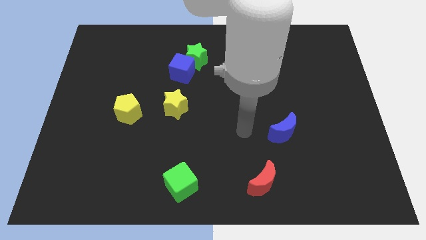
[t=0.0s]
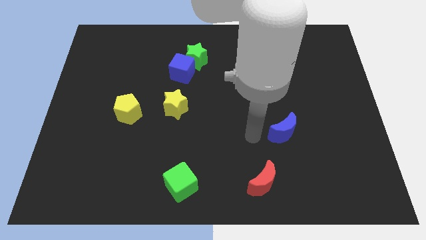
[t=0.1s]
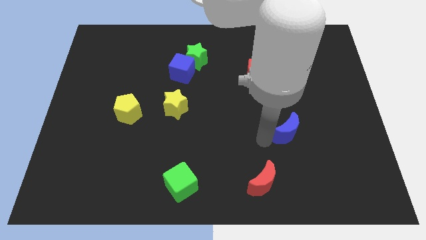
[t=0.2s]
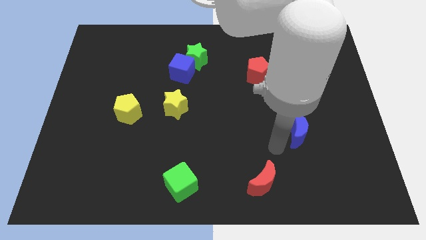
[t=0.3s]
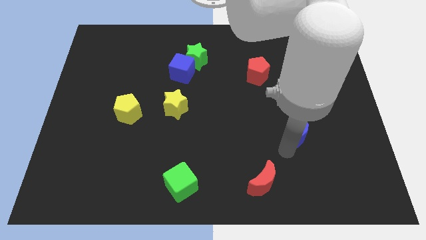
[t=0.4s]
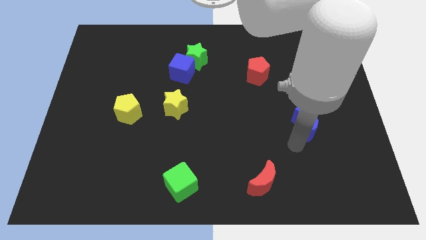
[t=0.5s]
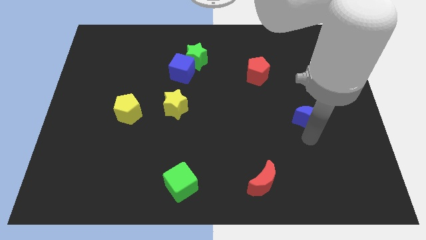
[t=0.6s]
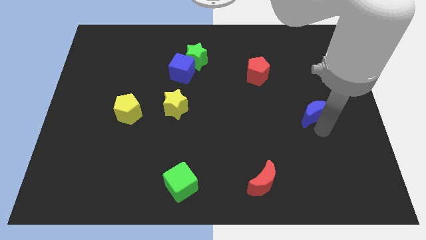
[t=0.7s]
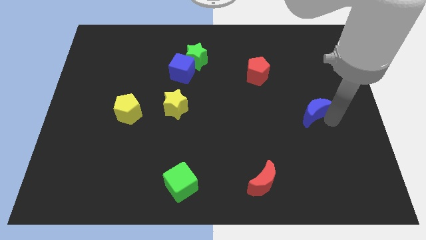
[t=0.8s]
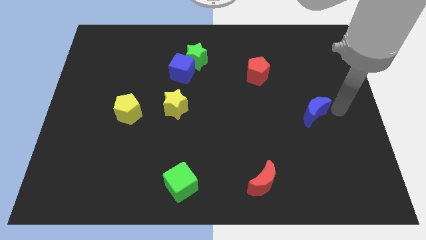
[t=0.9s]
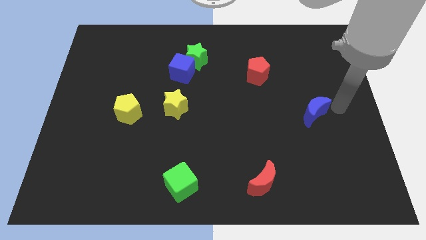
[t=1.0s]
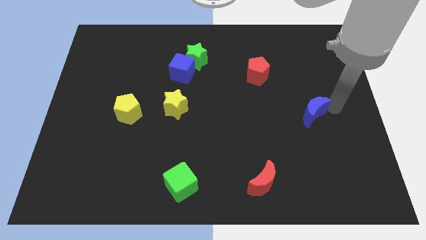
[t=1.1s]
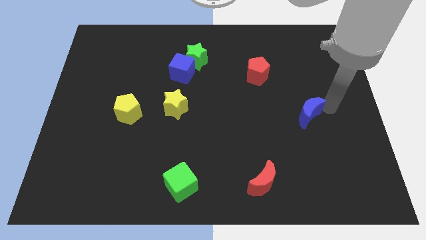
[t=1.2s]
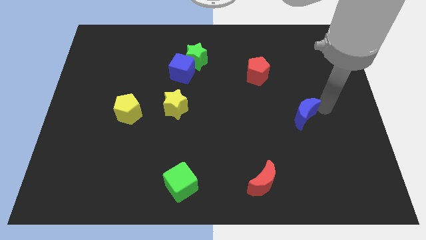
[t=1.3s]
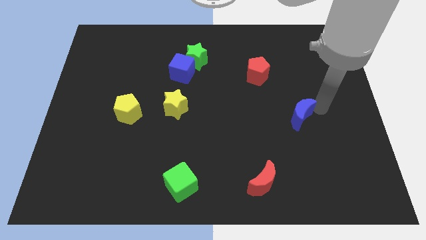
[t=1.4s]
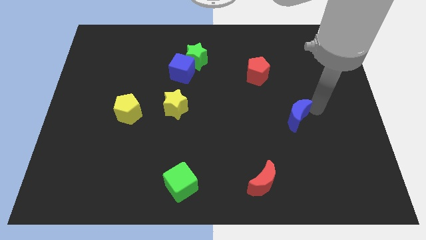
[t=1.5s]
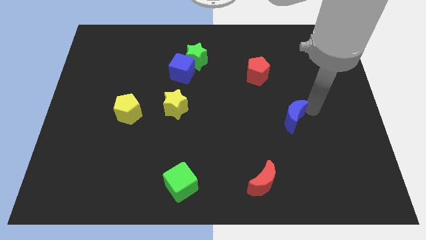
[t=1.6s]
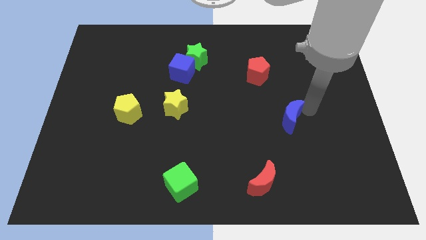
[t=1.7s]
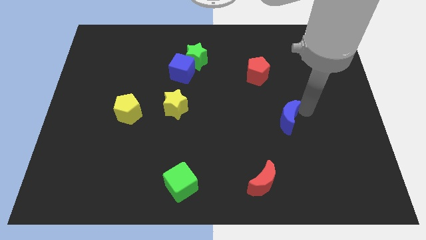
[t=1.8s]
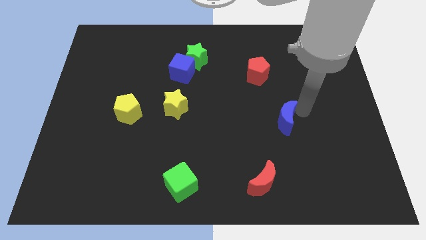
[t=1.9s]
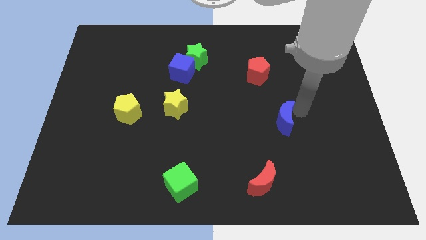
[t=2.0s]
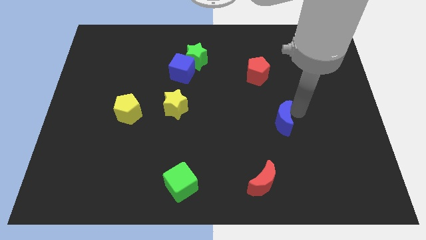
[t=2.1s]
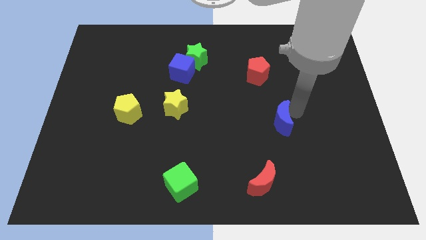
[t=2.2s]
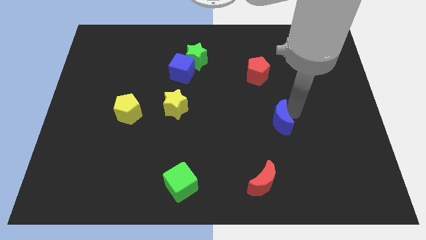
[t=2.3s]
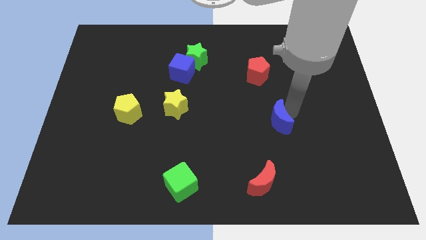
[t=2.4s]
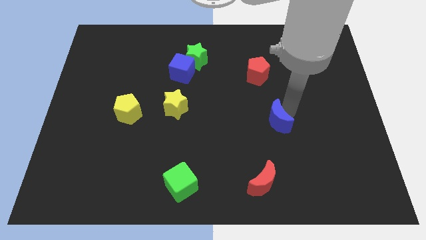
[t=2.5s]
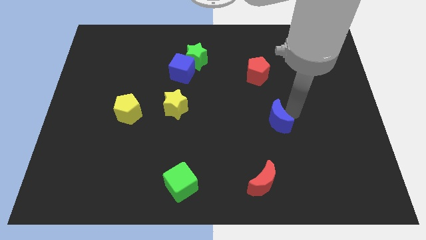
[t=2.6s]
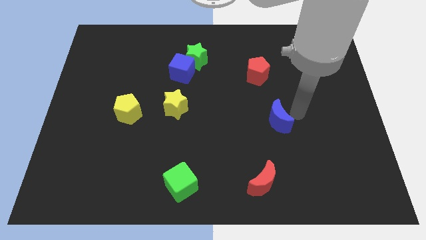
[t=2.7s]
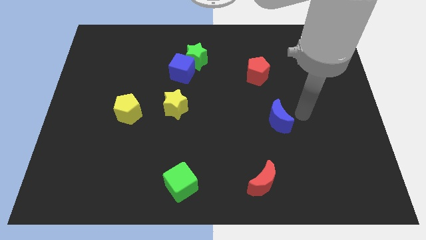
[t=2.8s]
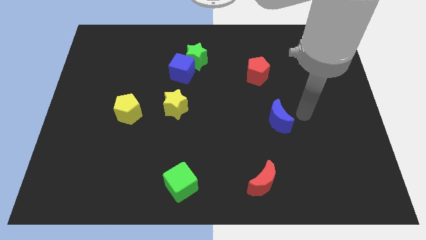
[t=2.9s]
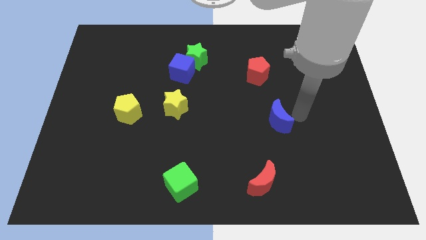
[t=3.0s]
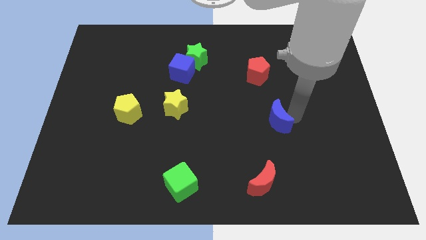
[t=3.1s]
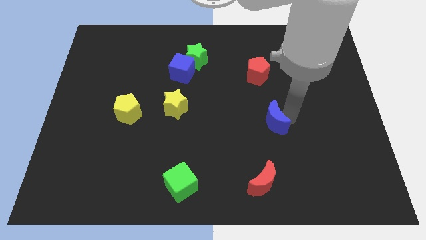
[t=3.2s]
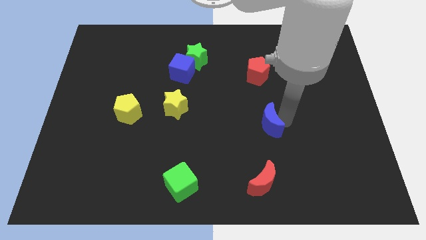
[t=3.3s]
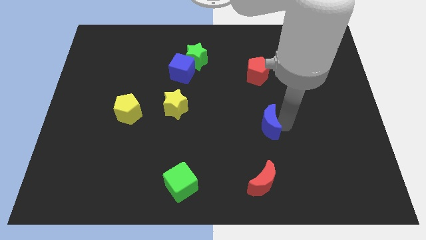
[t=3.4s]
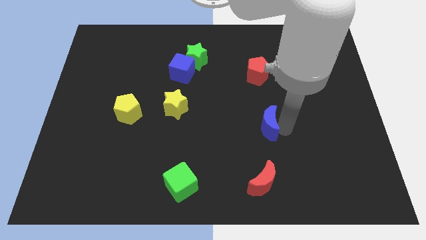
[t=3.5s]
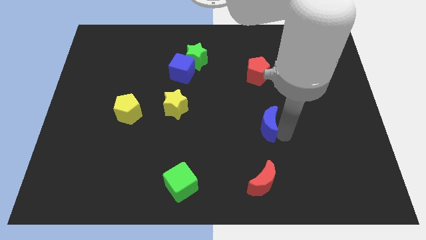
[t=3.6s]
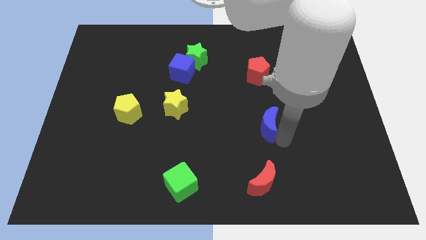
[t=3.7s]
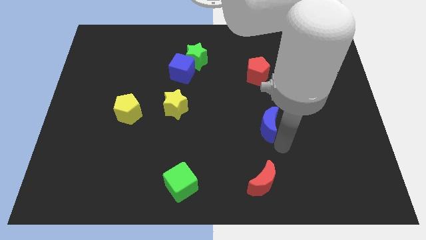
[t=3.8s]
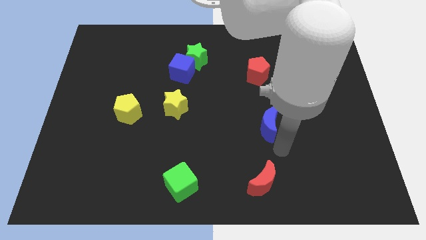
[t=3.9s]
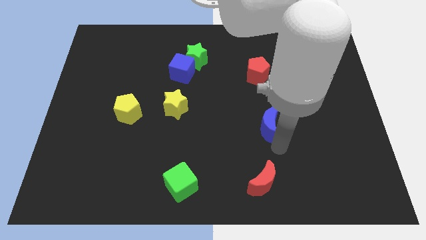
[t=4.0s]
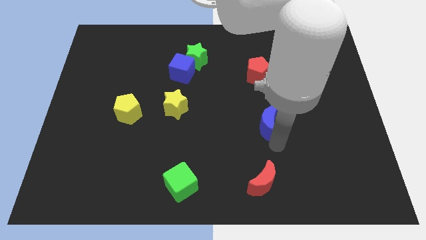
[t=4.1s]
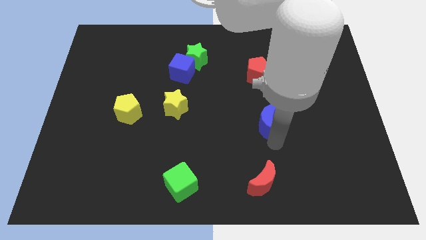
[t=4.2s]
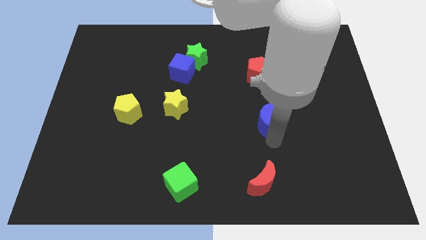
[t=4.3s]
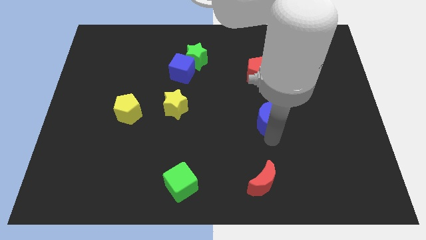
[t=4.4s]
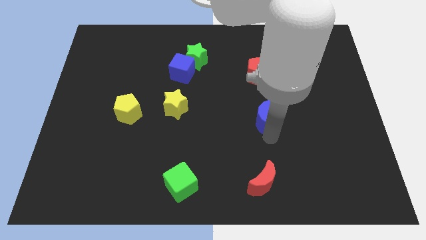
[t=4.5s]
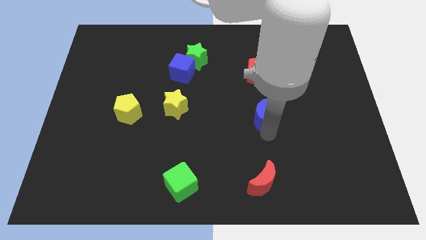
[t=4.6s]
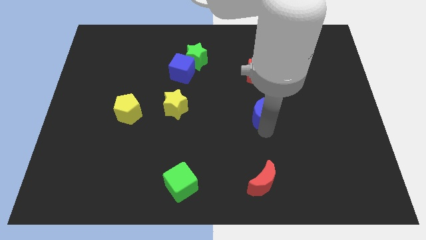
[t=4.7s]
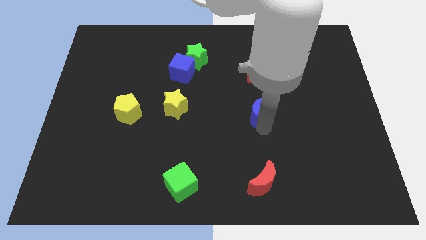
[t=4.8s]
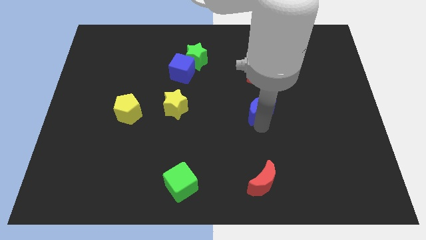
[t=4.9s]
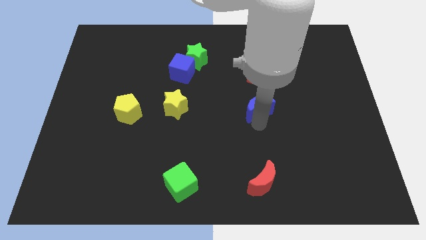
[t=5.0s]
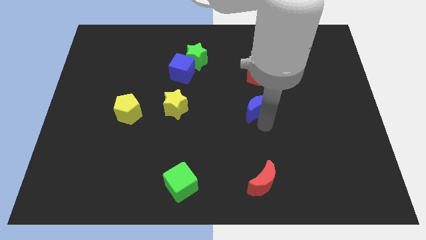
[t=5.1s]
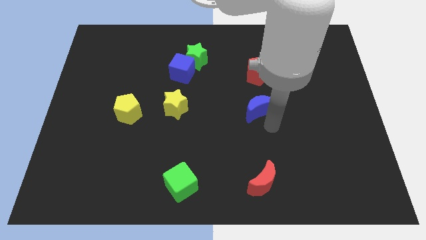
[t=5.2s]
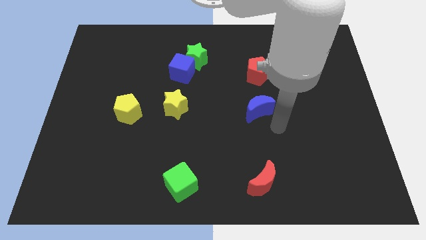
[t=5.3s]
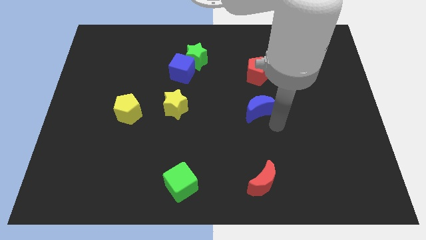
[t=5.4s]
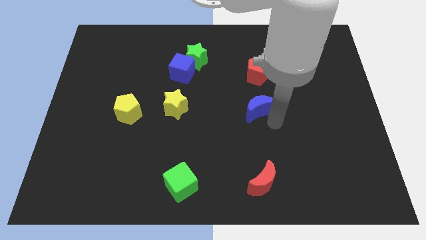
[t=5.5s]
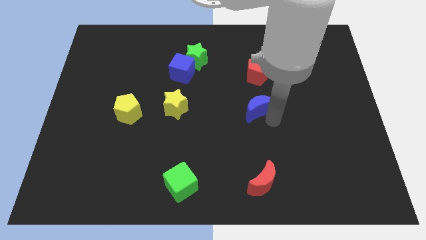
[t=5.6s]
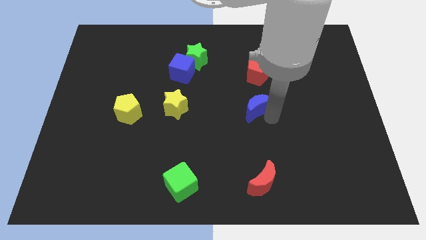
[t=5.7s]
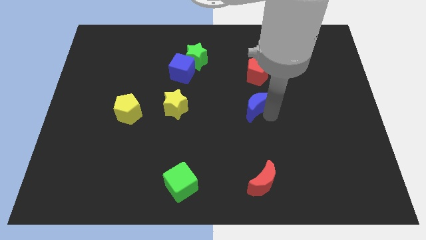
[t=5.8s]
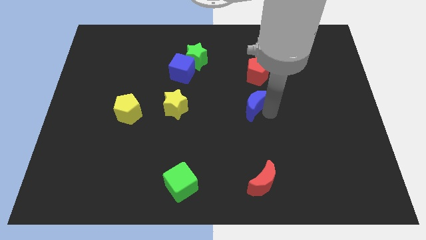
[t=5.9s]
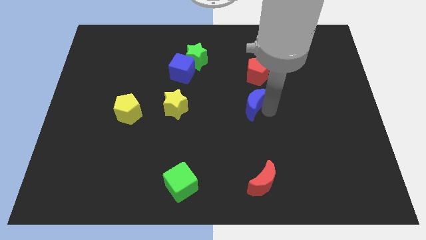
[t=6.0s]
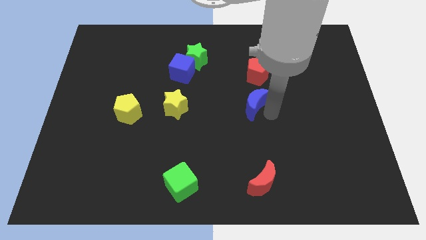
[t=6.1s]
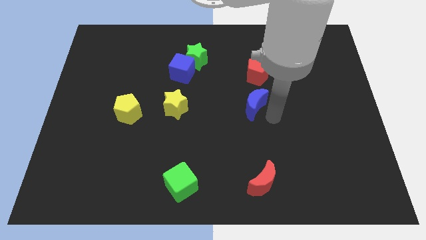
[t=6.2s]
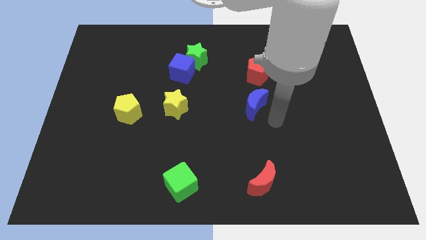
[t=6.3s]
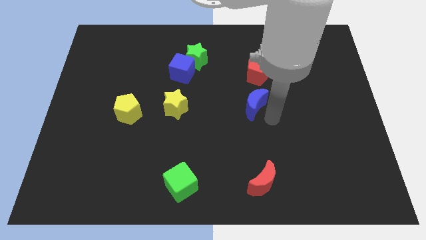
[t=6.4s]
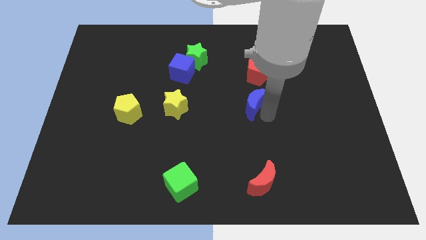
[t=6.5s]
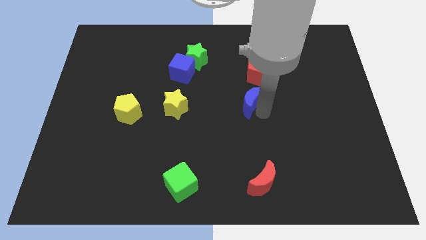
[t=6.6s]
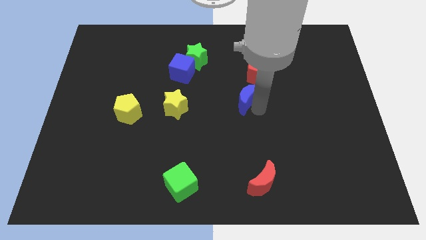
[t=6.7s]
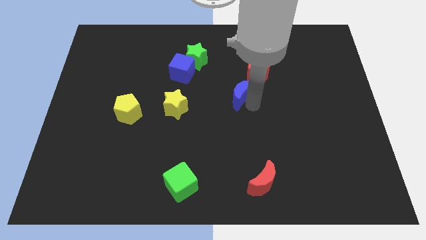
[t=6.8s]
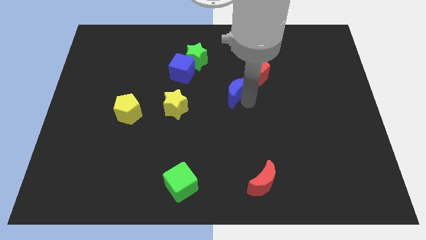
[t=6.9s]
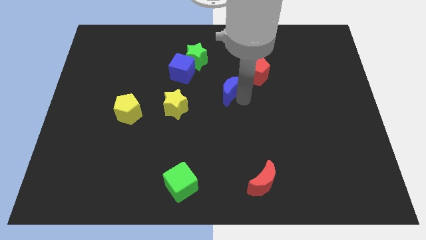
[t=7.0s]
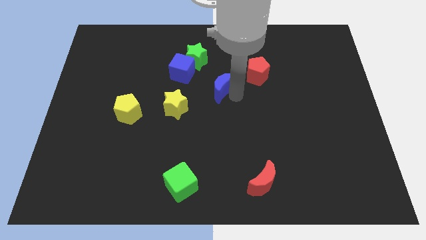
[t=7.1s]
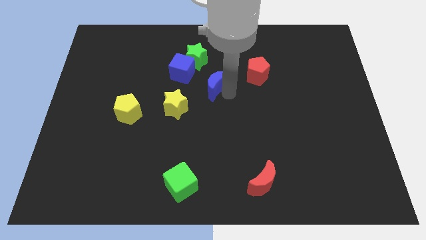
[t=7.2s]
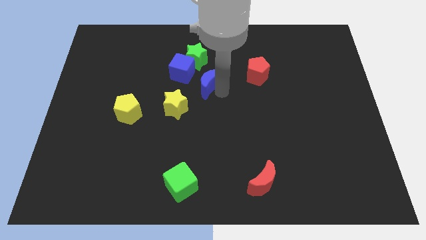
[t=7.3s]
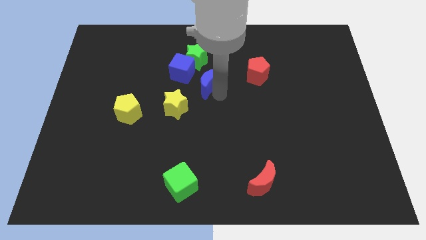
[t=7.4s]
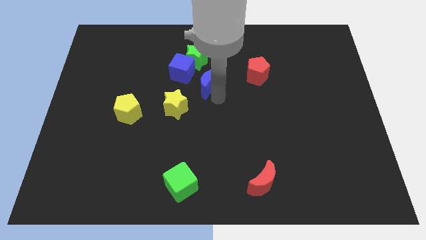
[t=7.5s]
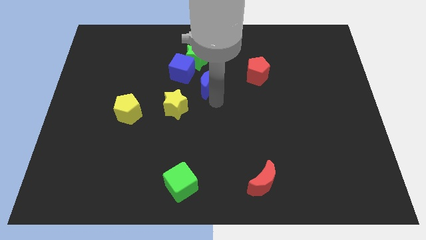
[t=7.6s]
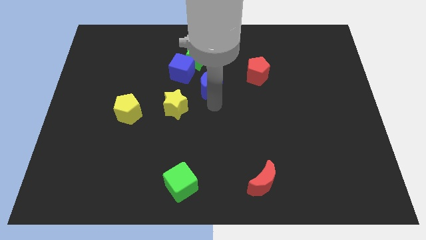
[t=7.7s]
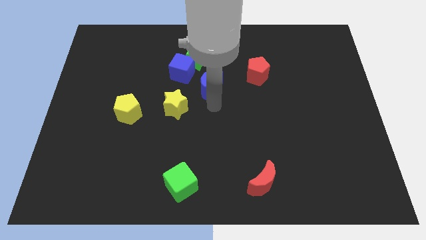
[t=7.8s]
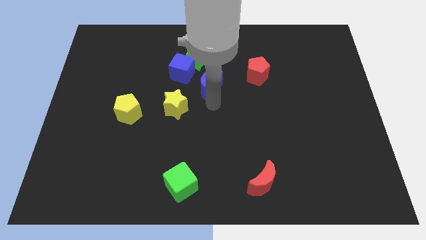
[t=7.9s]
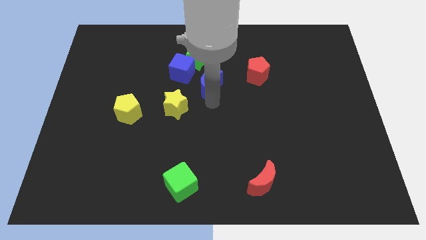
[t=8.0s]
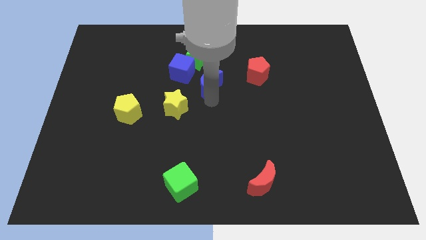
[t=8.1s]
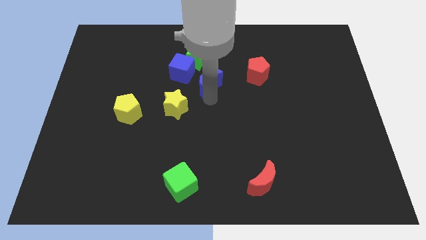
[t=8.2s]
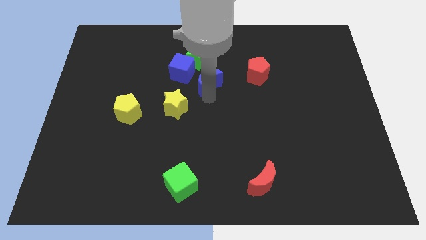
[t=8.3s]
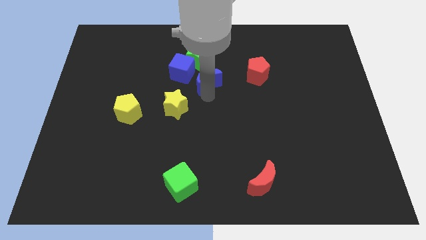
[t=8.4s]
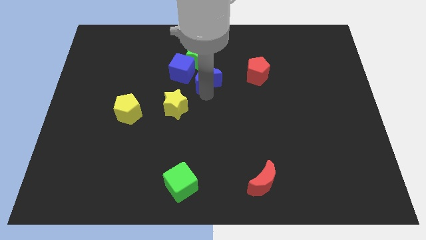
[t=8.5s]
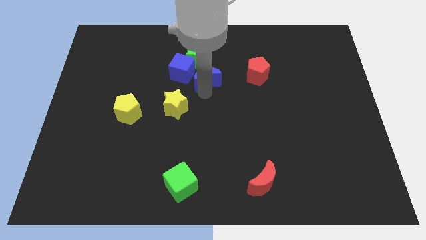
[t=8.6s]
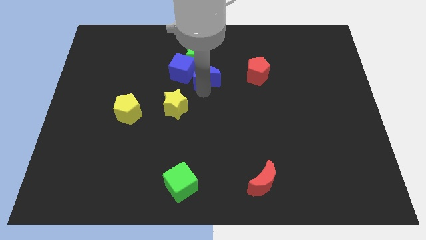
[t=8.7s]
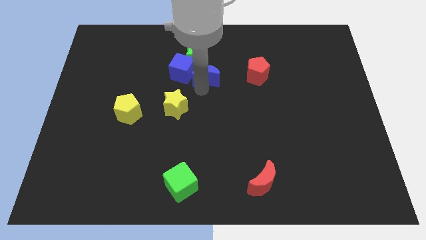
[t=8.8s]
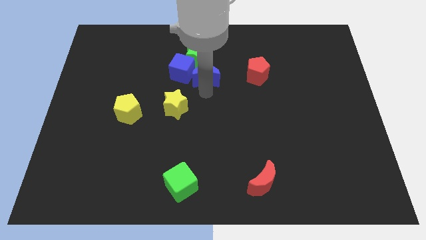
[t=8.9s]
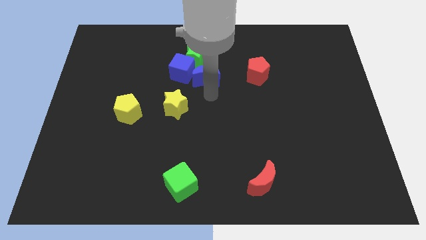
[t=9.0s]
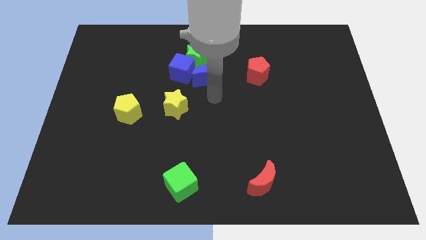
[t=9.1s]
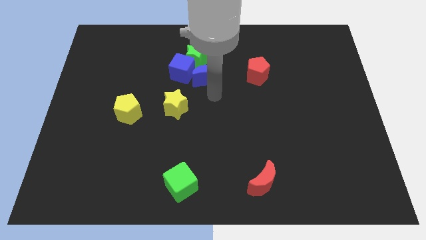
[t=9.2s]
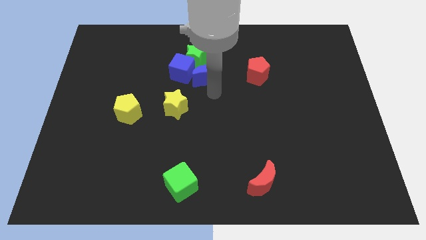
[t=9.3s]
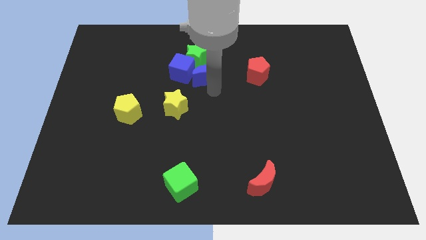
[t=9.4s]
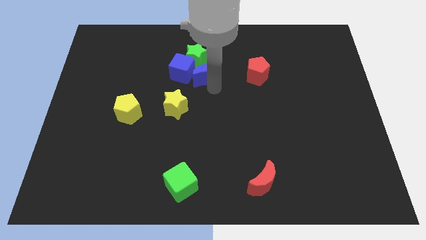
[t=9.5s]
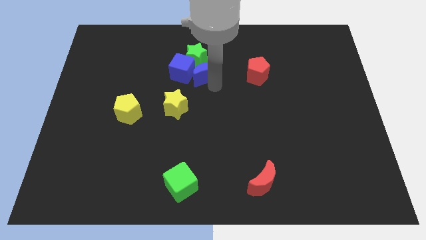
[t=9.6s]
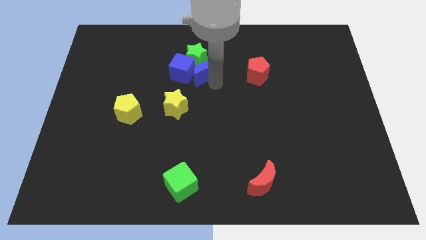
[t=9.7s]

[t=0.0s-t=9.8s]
put the blue moon towards the green star
